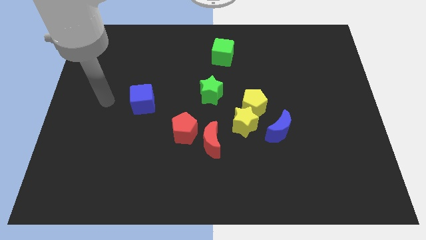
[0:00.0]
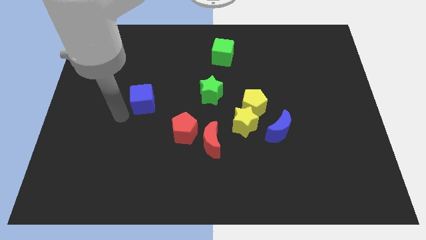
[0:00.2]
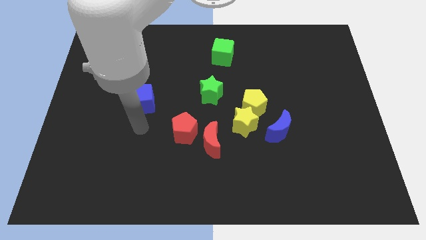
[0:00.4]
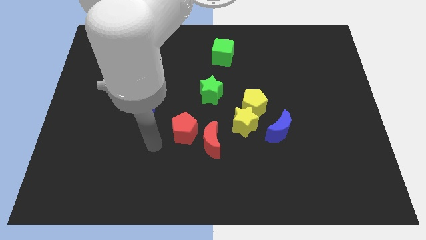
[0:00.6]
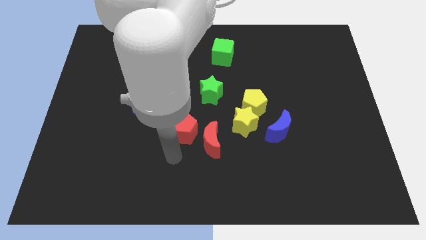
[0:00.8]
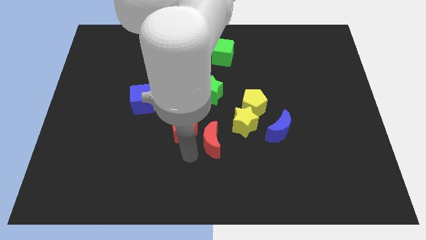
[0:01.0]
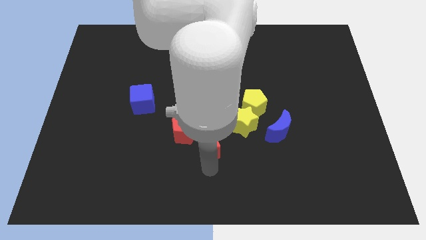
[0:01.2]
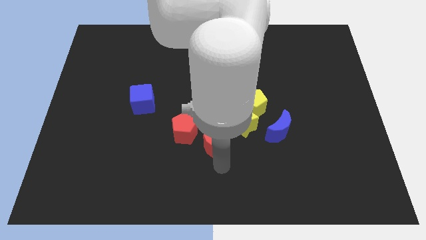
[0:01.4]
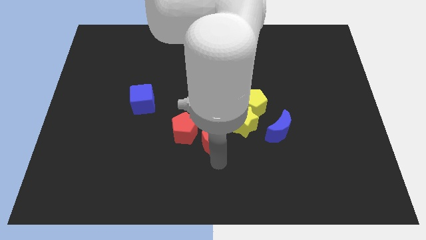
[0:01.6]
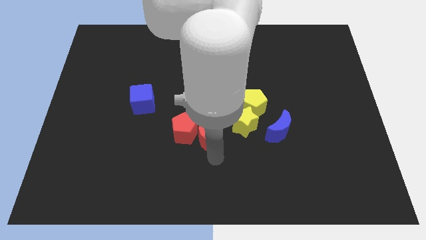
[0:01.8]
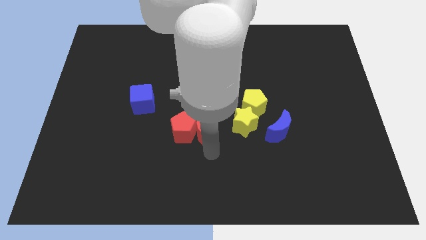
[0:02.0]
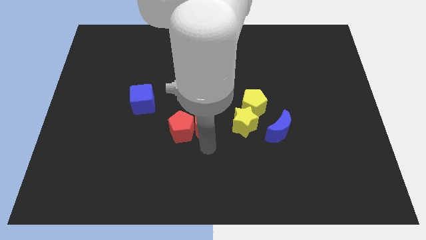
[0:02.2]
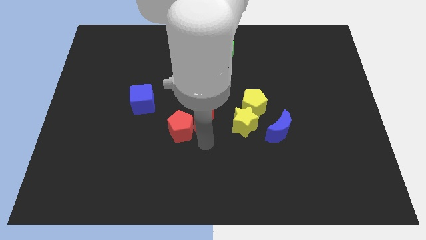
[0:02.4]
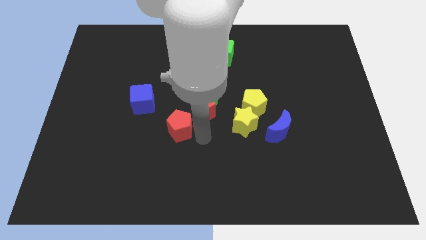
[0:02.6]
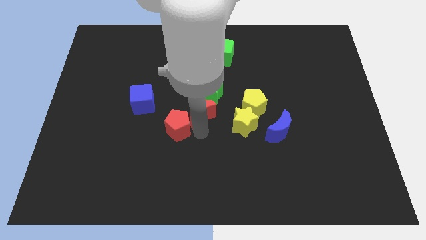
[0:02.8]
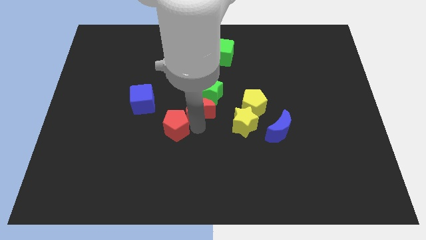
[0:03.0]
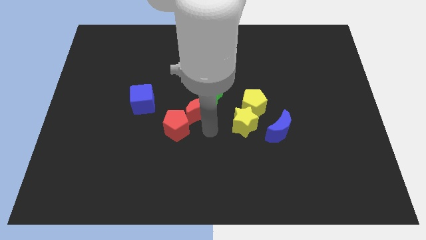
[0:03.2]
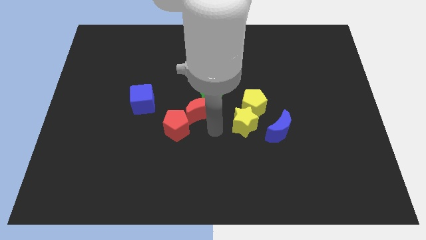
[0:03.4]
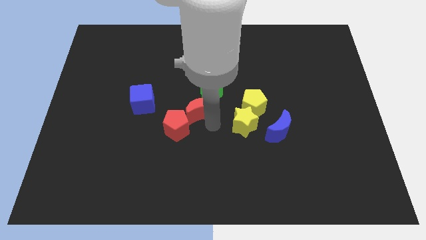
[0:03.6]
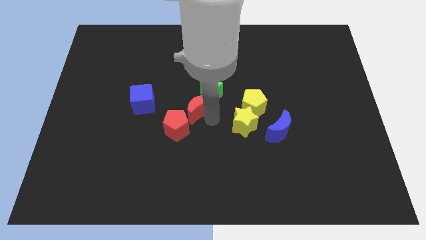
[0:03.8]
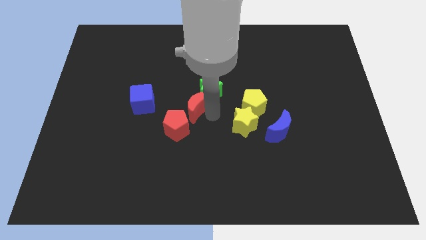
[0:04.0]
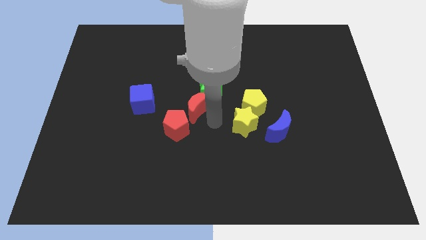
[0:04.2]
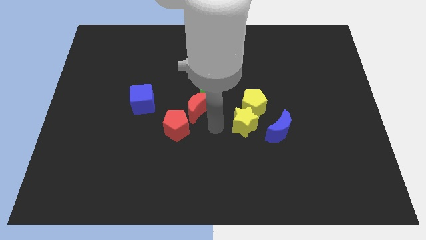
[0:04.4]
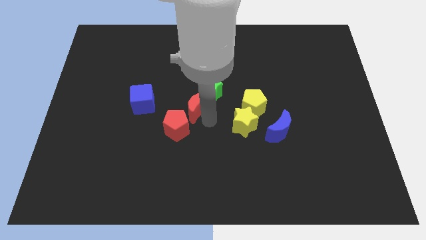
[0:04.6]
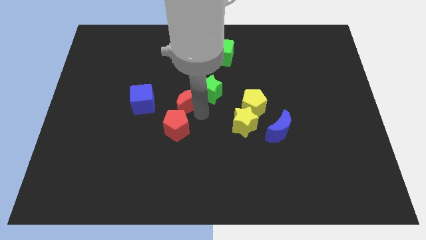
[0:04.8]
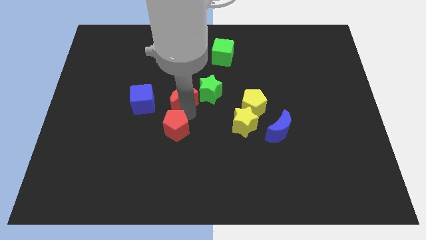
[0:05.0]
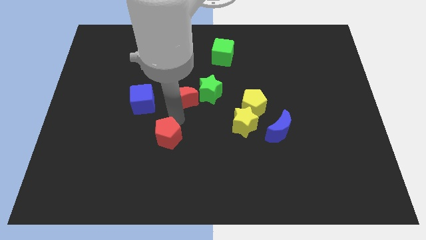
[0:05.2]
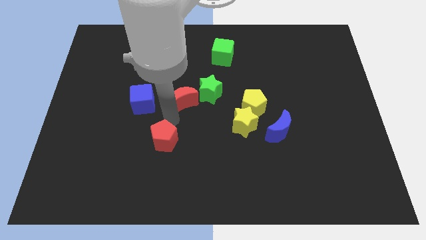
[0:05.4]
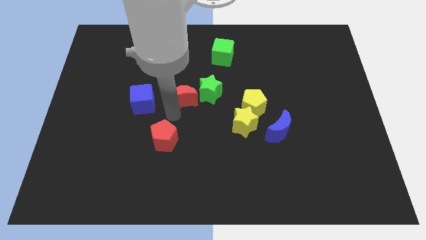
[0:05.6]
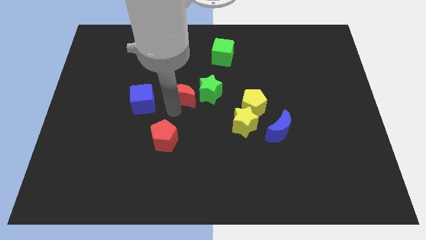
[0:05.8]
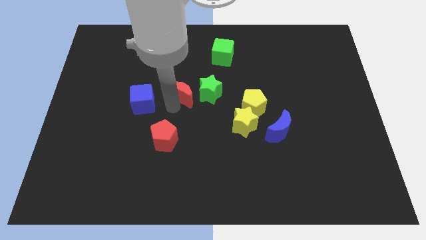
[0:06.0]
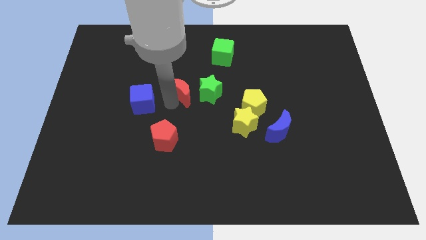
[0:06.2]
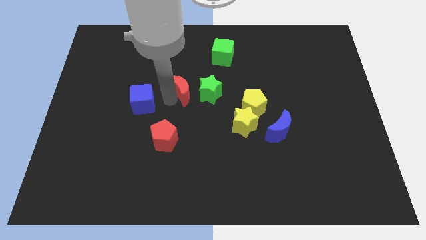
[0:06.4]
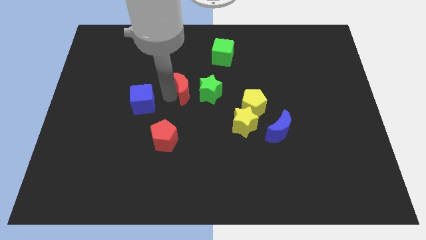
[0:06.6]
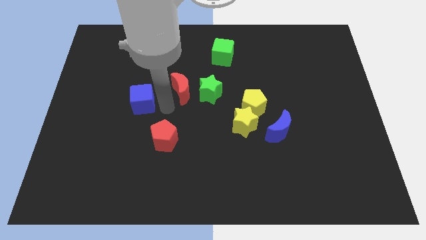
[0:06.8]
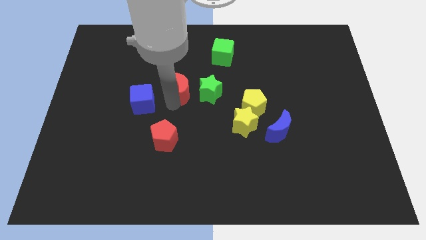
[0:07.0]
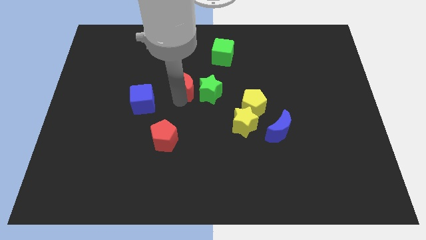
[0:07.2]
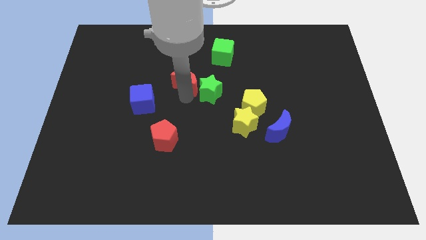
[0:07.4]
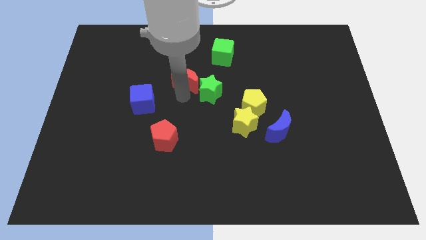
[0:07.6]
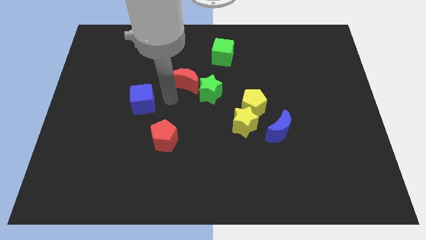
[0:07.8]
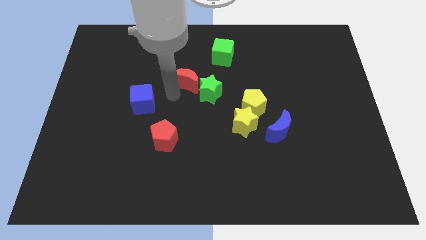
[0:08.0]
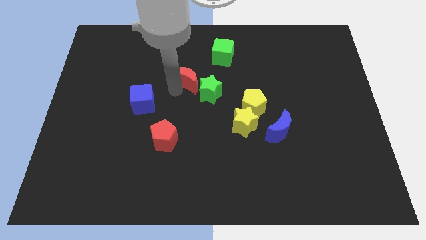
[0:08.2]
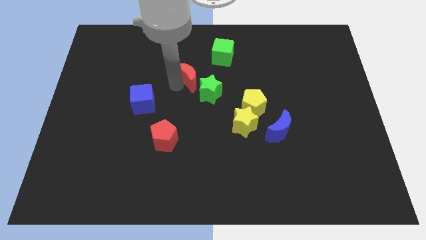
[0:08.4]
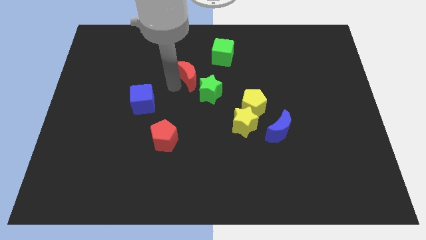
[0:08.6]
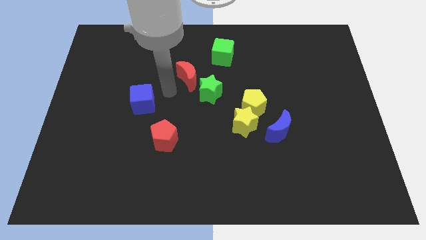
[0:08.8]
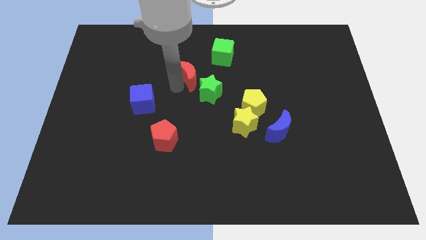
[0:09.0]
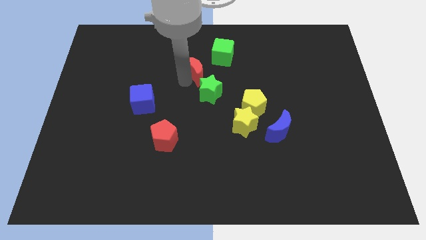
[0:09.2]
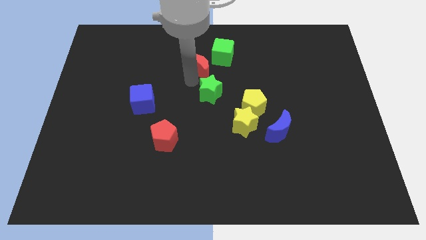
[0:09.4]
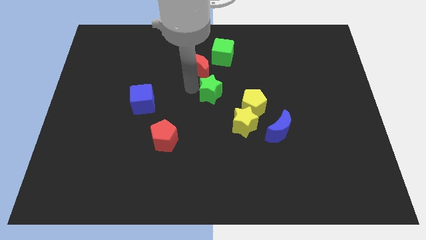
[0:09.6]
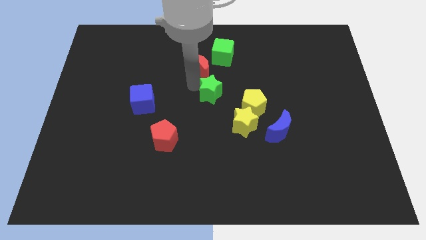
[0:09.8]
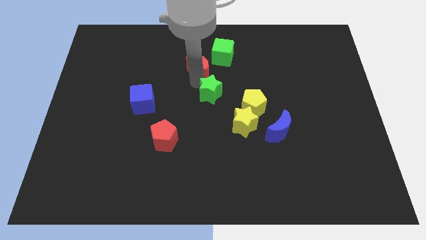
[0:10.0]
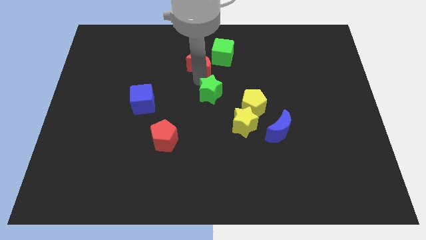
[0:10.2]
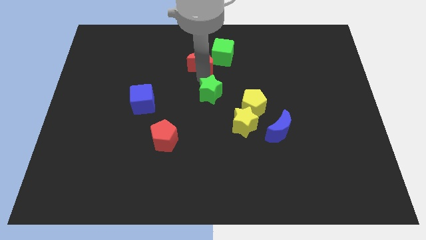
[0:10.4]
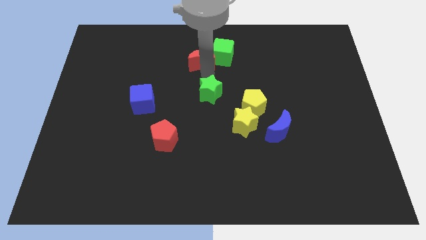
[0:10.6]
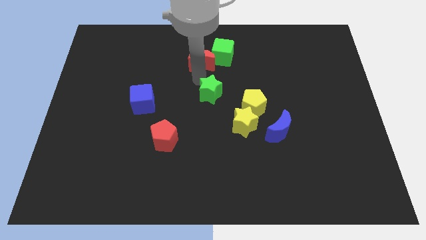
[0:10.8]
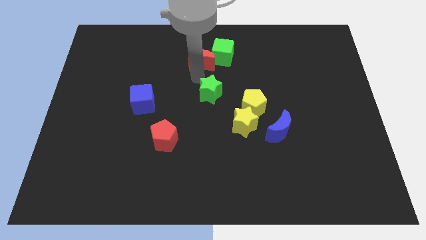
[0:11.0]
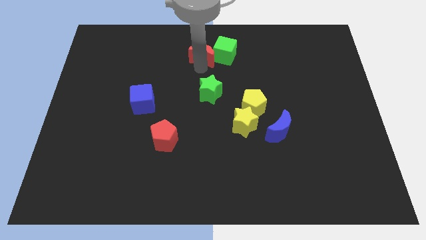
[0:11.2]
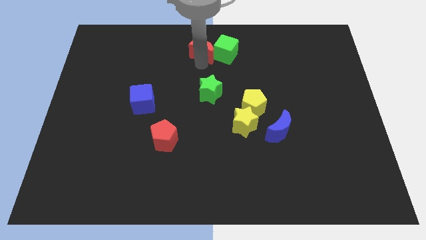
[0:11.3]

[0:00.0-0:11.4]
slide the red moon to the towards your base

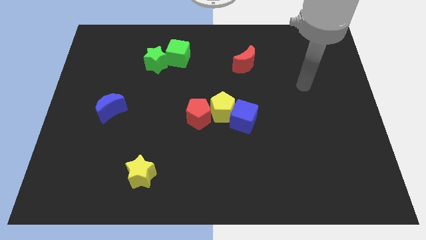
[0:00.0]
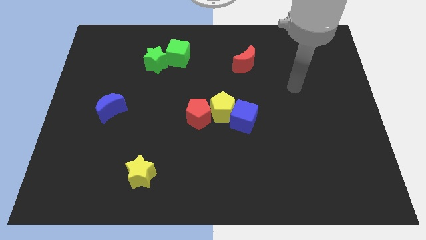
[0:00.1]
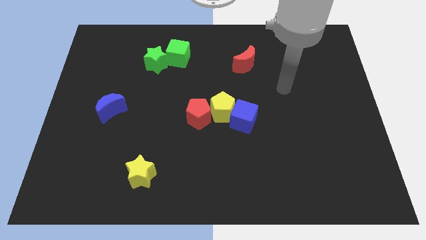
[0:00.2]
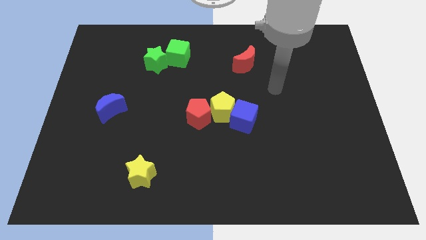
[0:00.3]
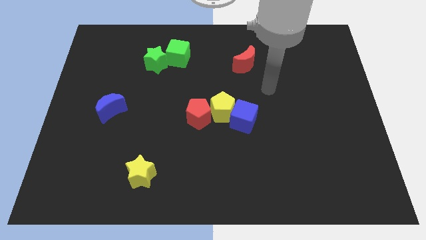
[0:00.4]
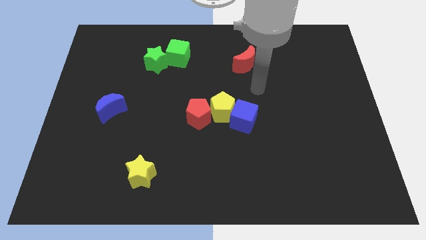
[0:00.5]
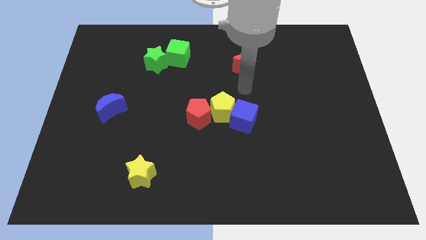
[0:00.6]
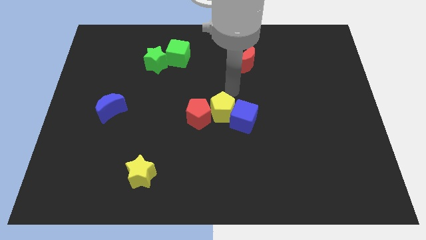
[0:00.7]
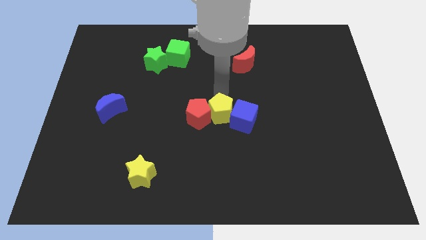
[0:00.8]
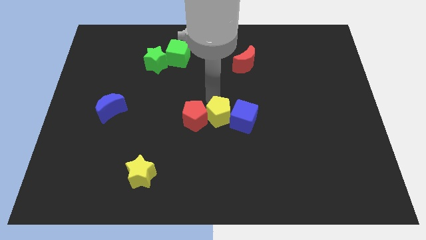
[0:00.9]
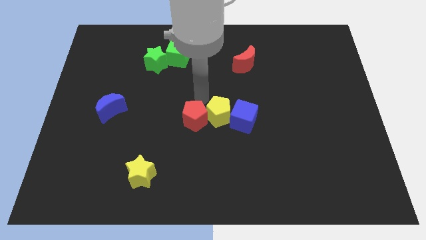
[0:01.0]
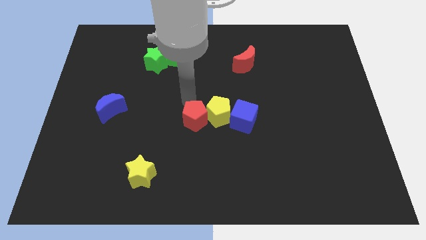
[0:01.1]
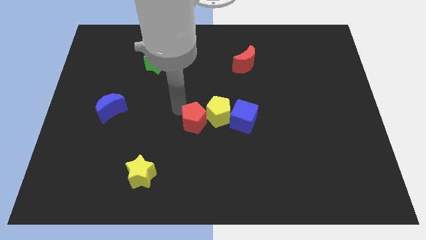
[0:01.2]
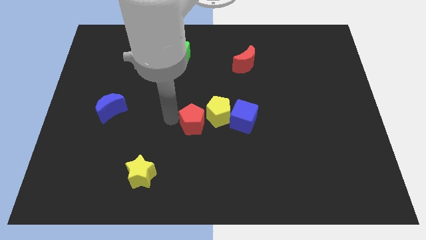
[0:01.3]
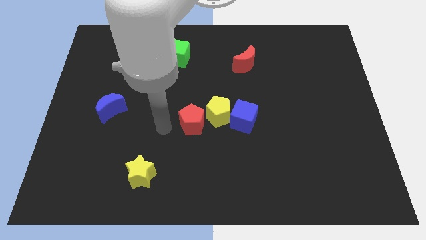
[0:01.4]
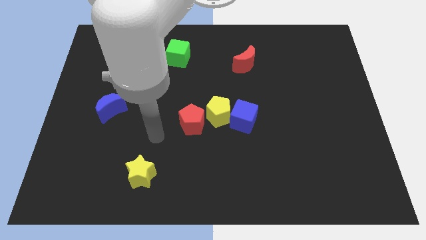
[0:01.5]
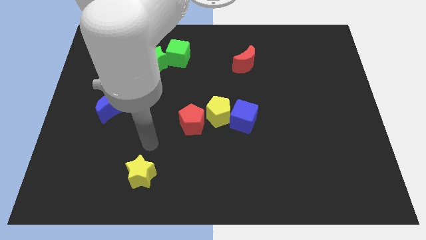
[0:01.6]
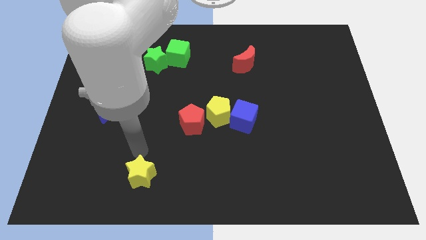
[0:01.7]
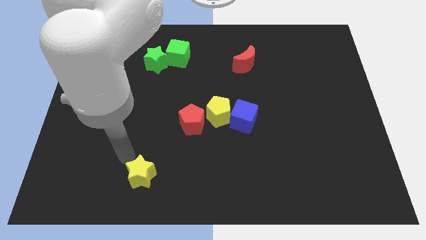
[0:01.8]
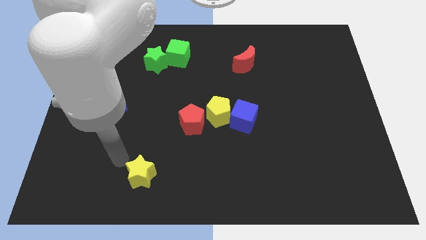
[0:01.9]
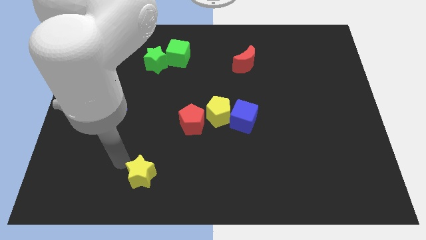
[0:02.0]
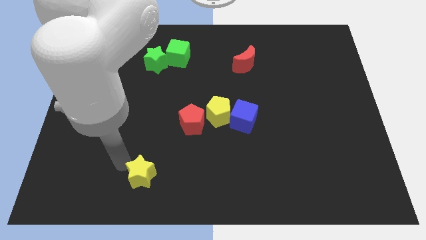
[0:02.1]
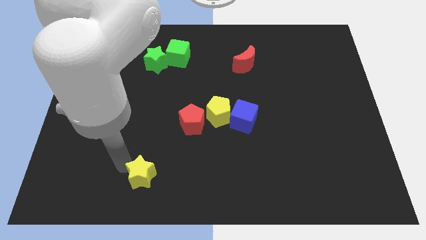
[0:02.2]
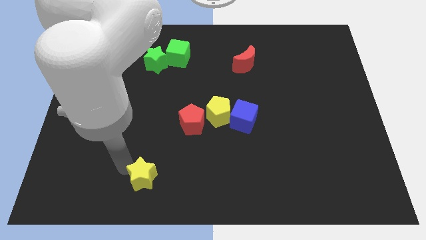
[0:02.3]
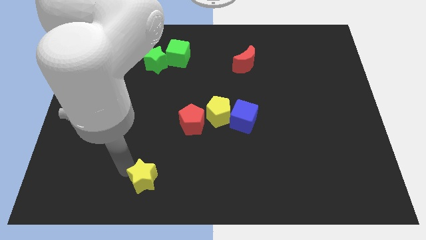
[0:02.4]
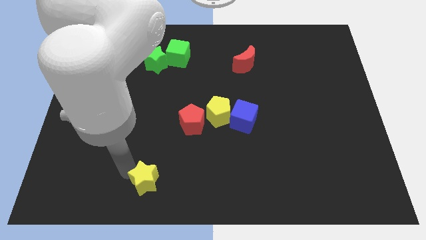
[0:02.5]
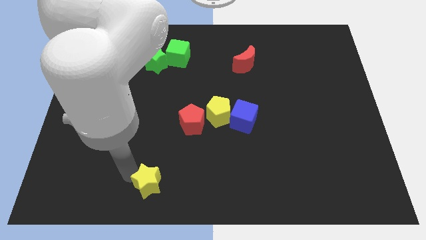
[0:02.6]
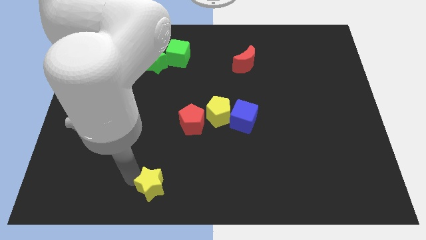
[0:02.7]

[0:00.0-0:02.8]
slide the yellow star to the bottom
